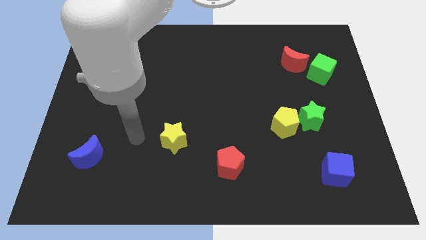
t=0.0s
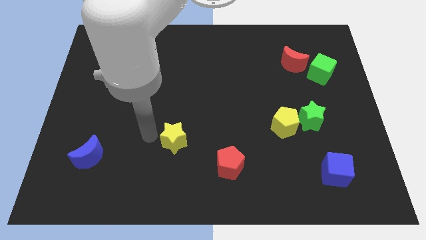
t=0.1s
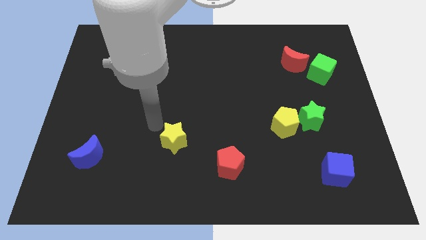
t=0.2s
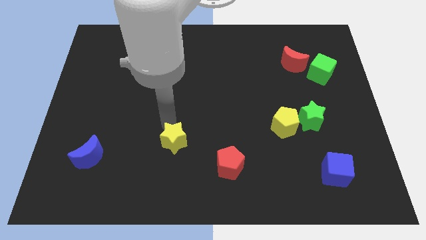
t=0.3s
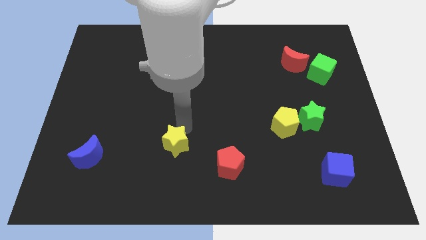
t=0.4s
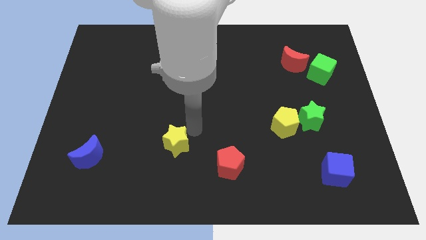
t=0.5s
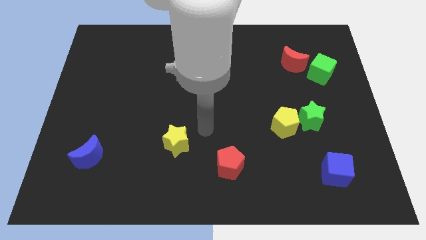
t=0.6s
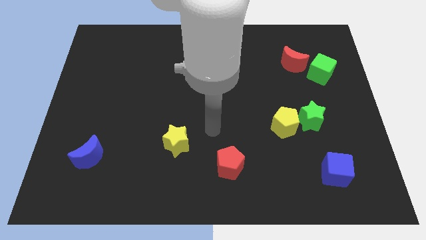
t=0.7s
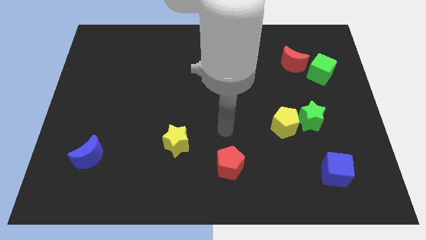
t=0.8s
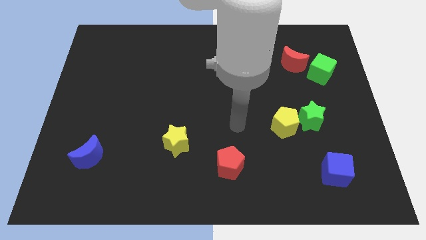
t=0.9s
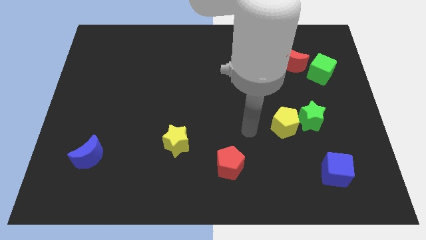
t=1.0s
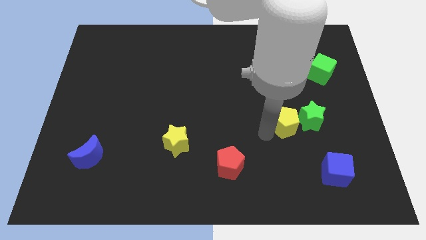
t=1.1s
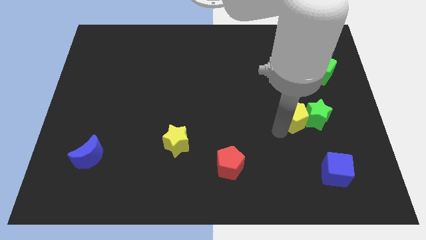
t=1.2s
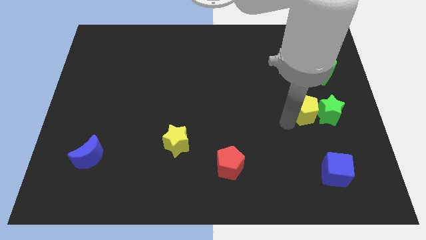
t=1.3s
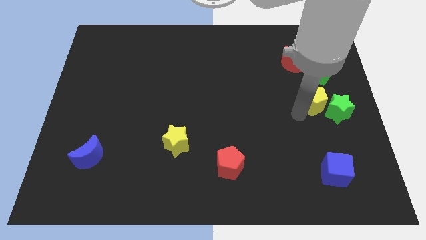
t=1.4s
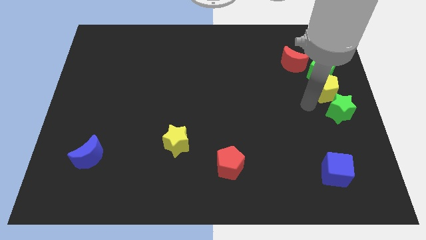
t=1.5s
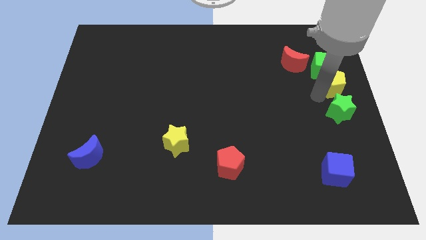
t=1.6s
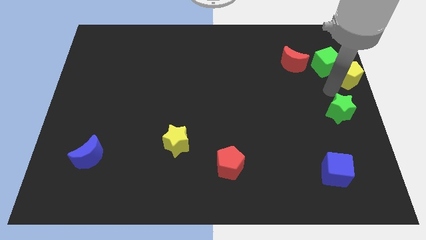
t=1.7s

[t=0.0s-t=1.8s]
pull the green star apart from the yellow pentagon

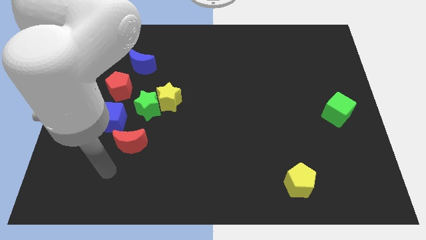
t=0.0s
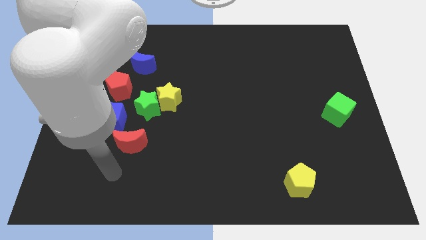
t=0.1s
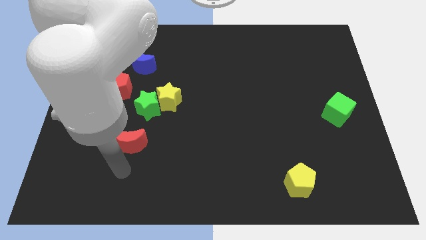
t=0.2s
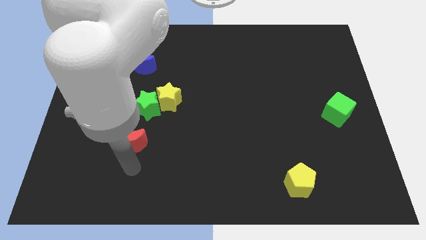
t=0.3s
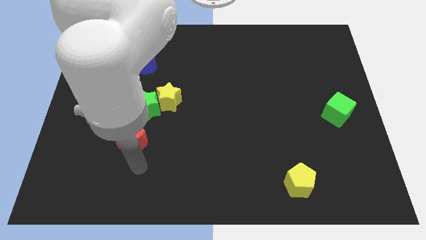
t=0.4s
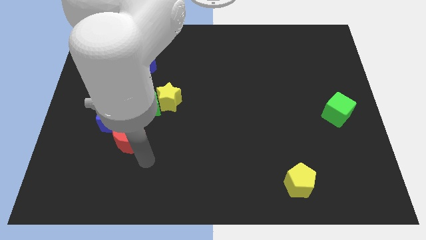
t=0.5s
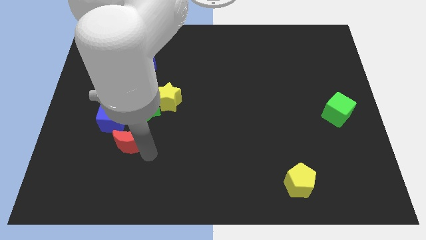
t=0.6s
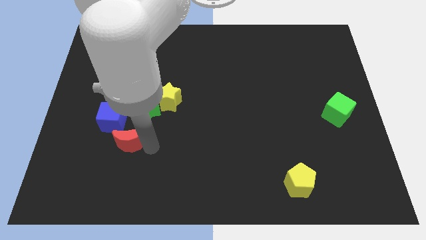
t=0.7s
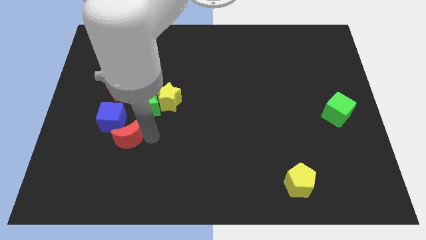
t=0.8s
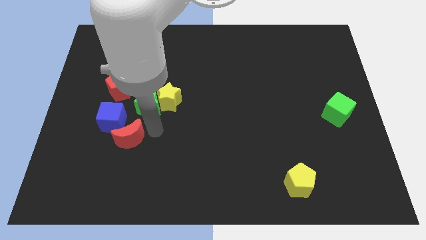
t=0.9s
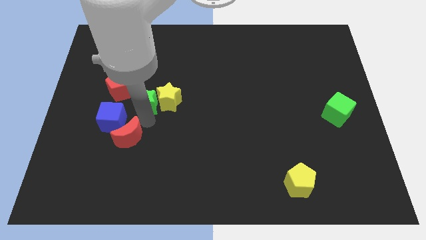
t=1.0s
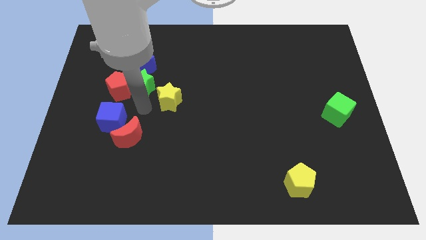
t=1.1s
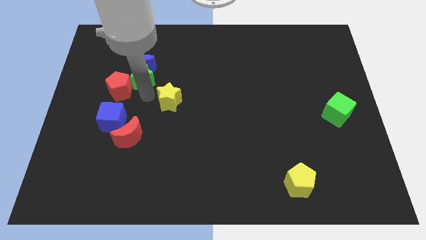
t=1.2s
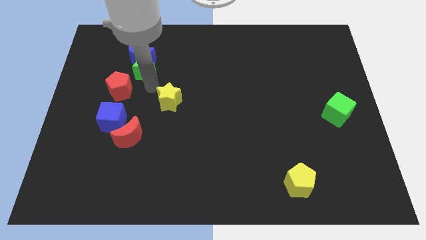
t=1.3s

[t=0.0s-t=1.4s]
separate the yellow star from the green star

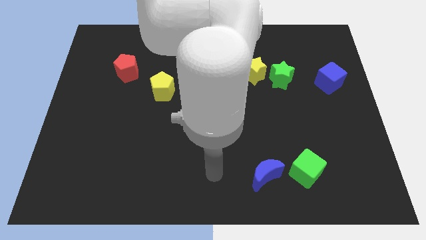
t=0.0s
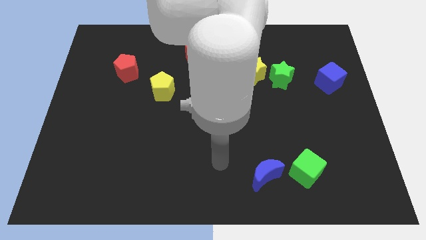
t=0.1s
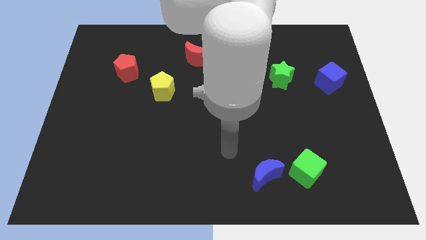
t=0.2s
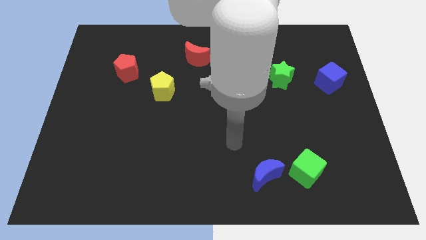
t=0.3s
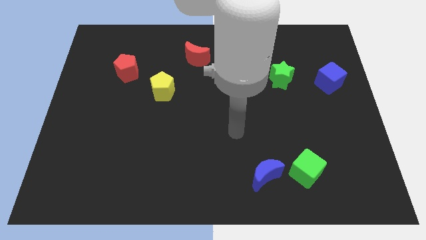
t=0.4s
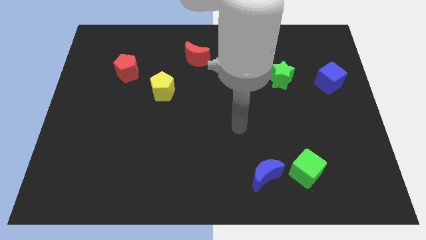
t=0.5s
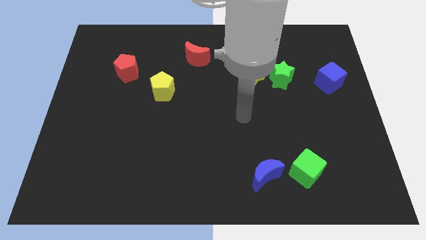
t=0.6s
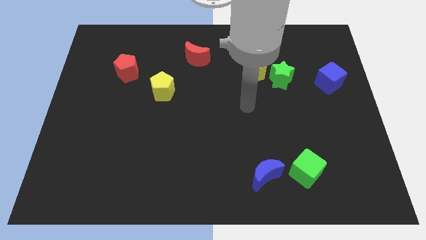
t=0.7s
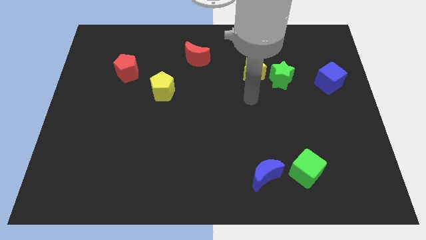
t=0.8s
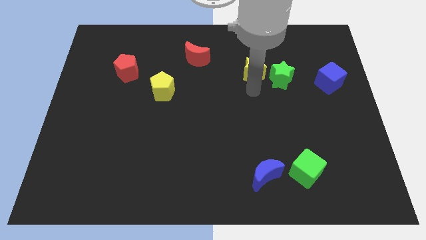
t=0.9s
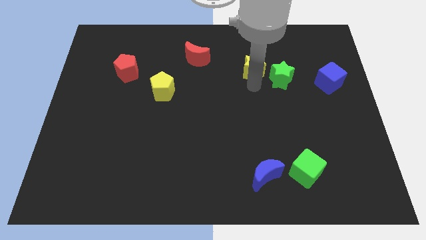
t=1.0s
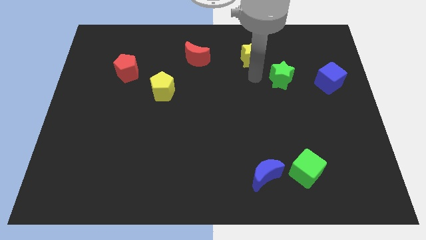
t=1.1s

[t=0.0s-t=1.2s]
separate the green star from the yellow star

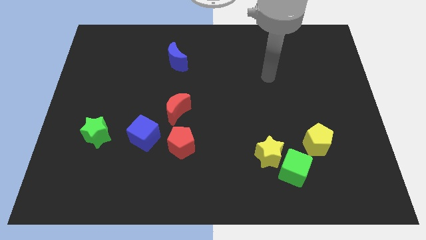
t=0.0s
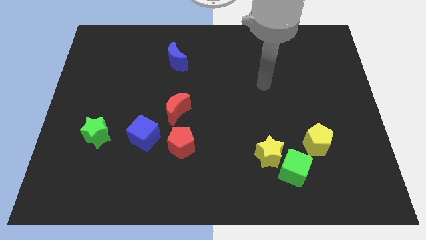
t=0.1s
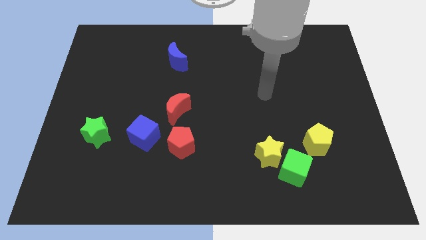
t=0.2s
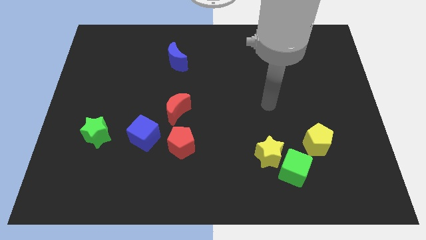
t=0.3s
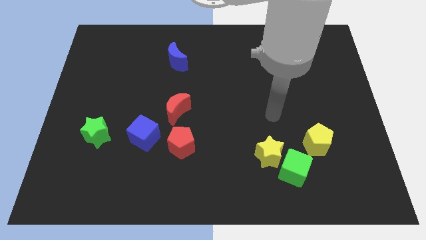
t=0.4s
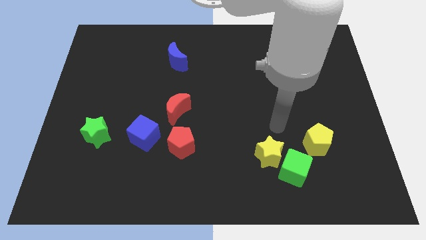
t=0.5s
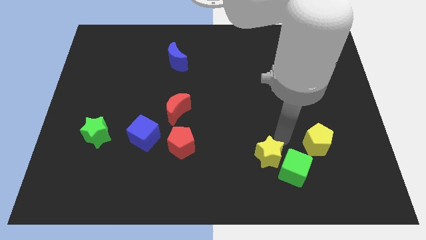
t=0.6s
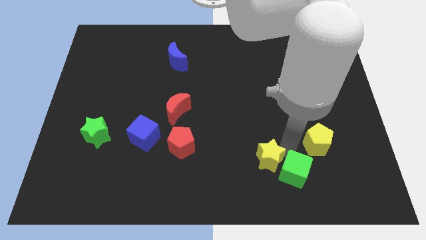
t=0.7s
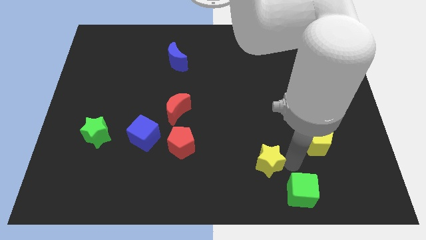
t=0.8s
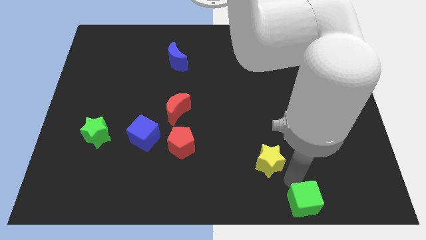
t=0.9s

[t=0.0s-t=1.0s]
pull the yellow star apart from the green cube

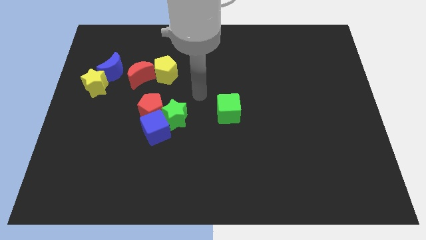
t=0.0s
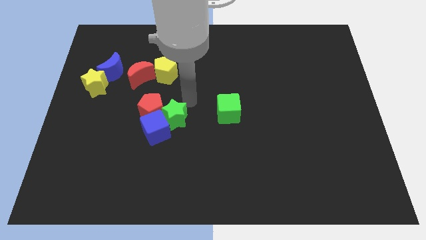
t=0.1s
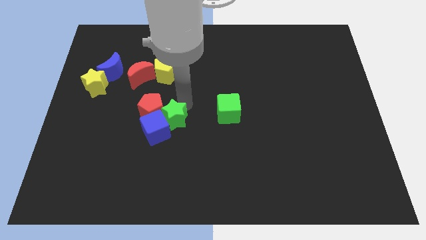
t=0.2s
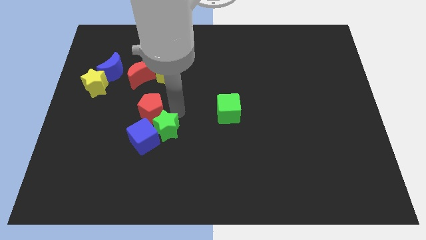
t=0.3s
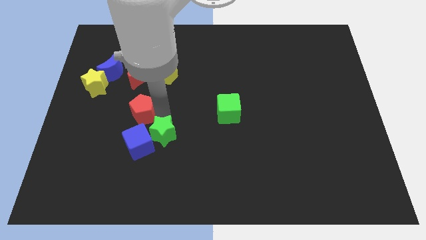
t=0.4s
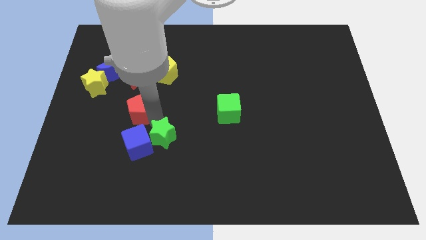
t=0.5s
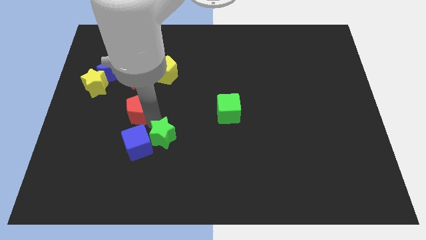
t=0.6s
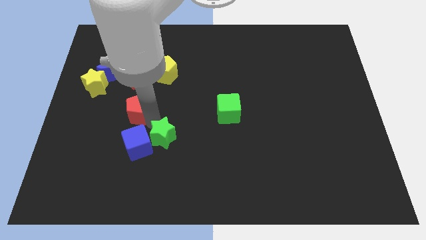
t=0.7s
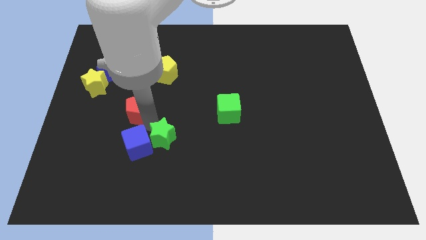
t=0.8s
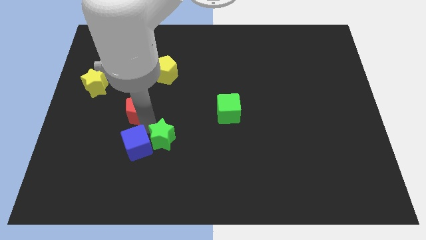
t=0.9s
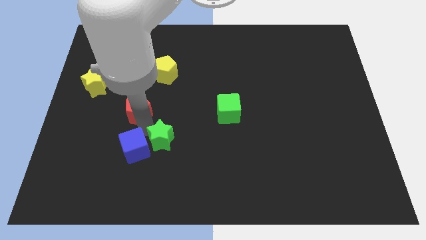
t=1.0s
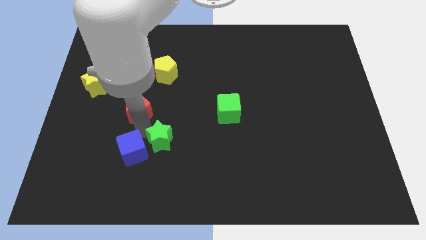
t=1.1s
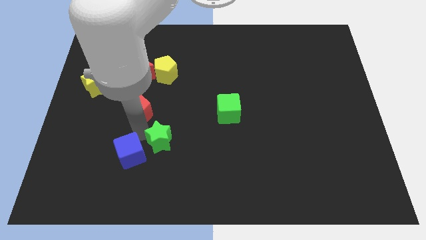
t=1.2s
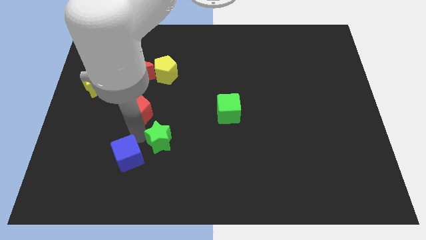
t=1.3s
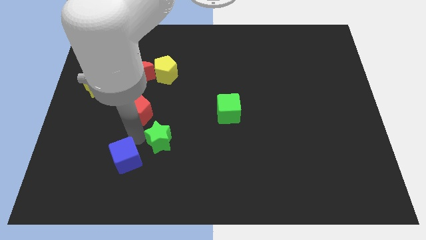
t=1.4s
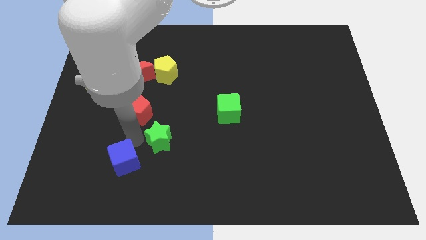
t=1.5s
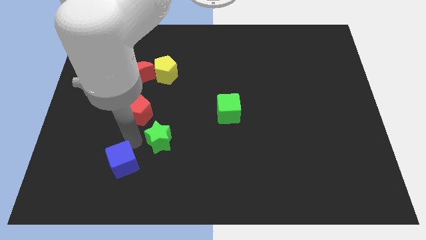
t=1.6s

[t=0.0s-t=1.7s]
pull the blue cube apart from the red pentagon and green star

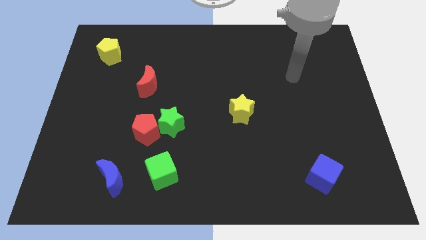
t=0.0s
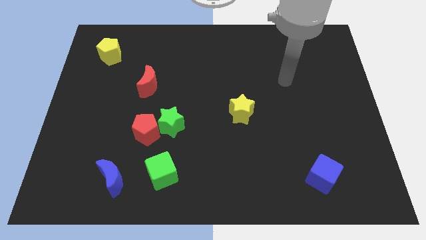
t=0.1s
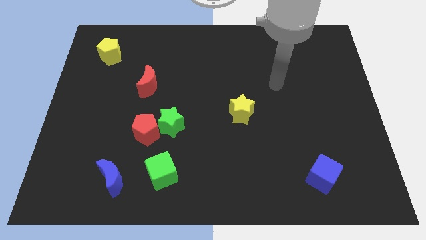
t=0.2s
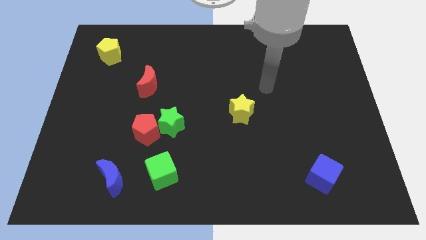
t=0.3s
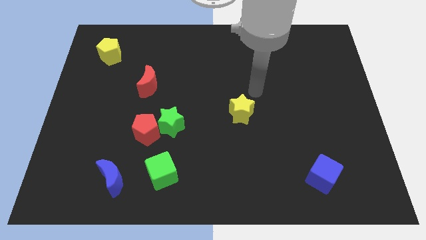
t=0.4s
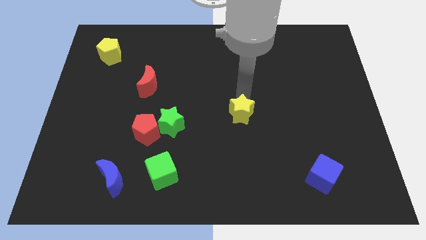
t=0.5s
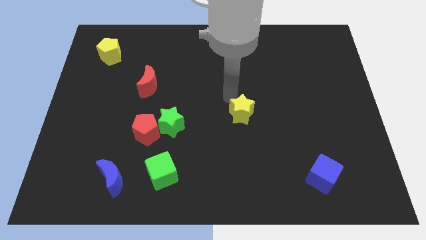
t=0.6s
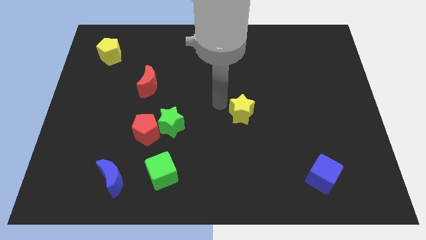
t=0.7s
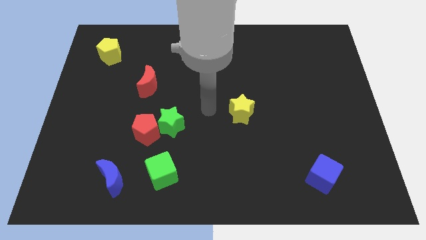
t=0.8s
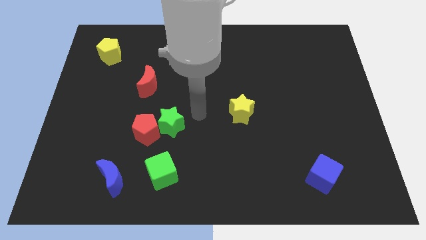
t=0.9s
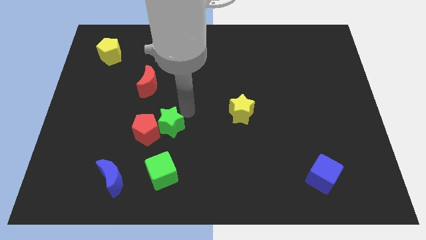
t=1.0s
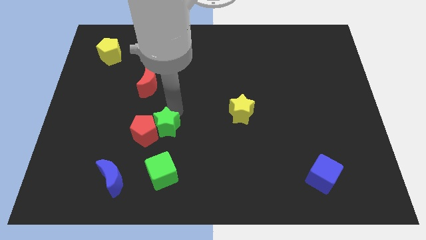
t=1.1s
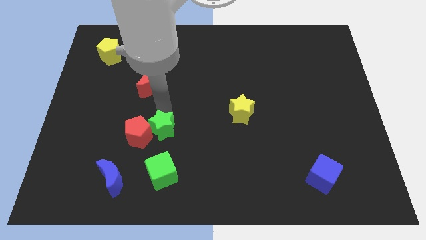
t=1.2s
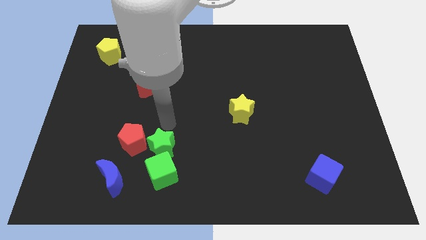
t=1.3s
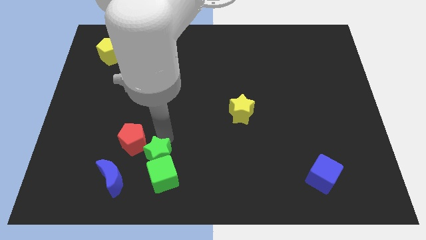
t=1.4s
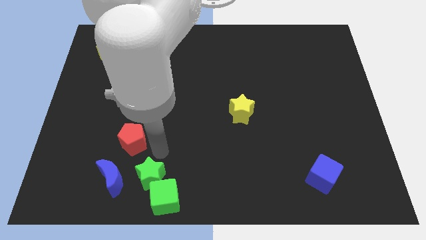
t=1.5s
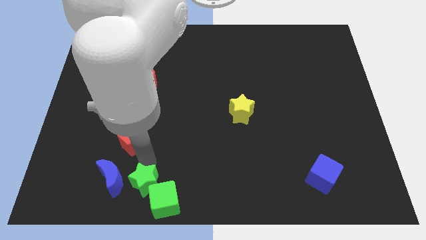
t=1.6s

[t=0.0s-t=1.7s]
separate the red pentagon from the green star

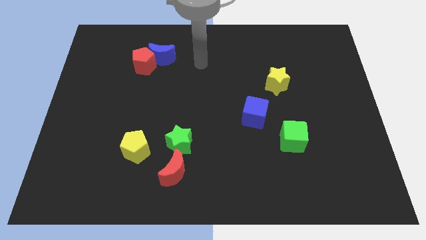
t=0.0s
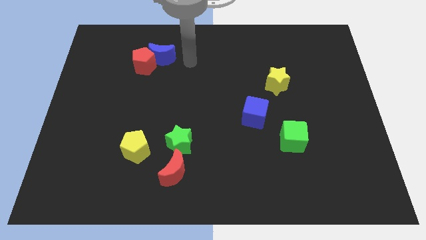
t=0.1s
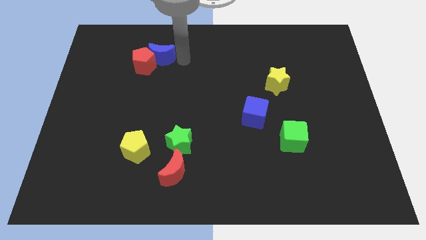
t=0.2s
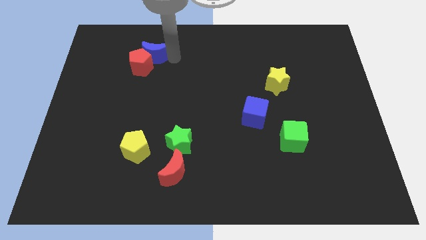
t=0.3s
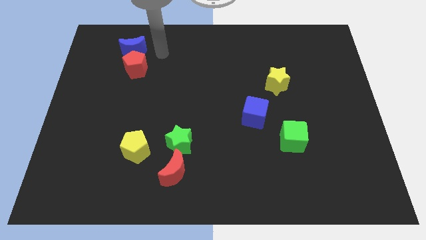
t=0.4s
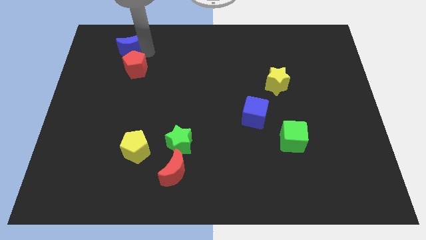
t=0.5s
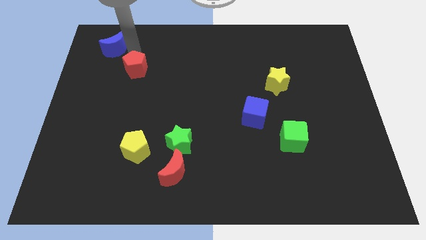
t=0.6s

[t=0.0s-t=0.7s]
move the red pentagon away from the blue moon

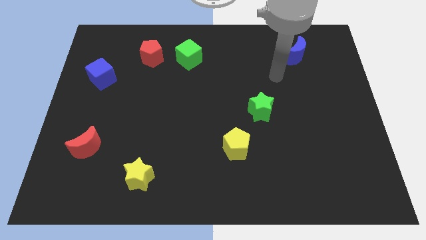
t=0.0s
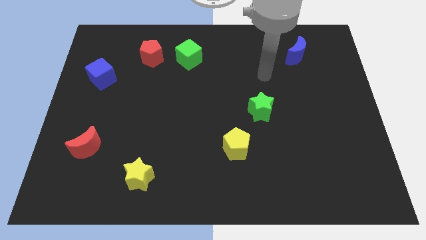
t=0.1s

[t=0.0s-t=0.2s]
move the red pentagon away from the green cube
